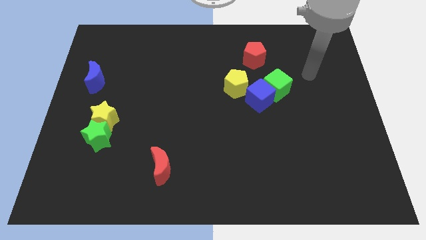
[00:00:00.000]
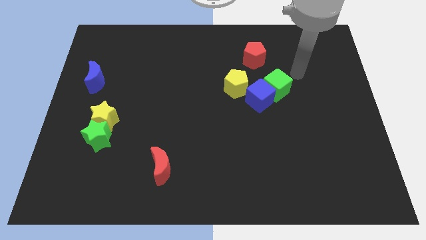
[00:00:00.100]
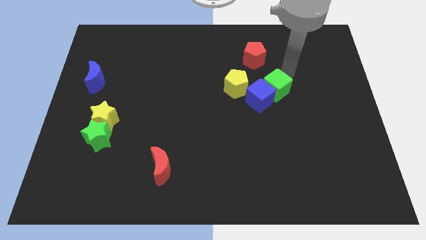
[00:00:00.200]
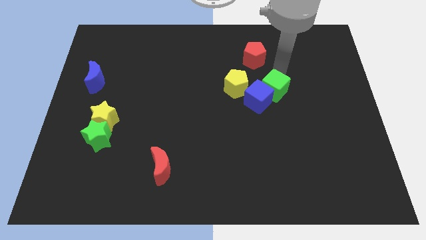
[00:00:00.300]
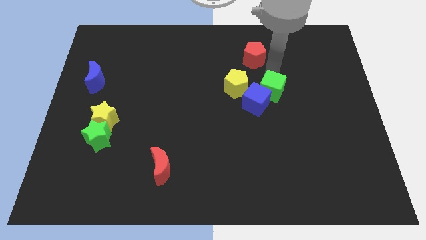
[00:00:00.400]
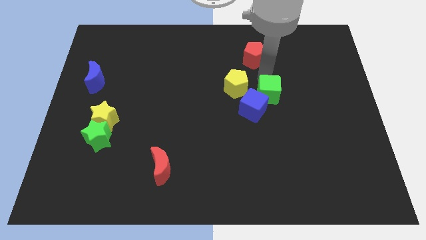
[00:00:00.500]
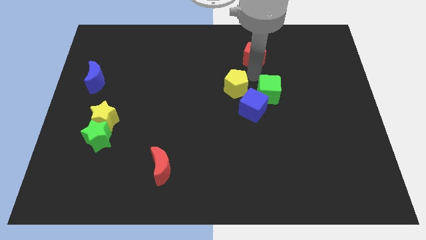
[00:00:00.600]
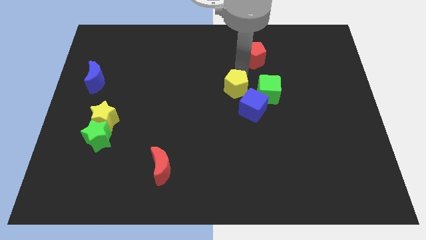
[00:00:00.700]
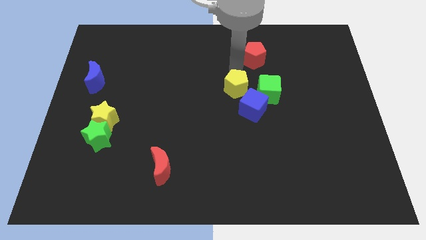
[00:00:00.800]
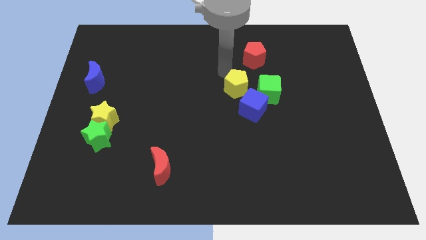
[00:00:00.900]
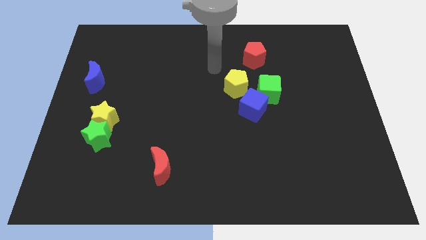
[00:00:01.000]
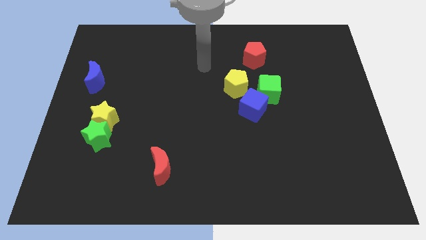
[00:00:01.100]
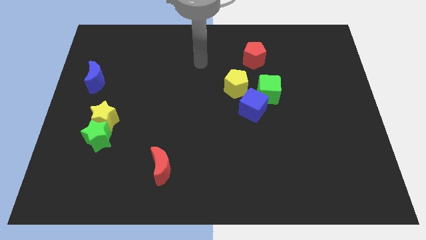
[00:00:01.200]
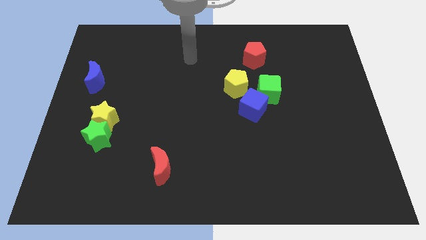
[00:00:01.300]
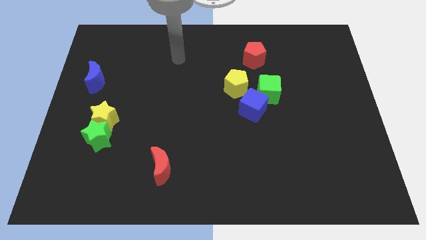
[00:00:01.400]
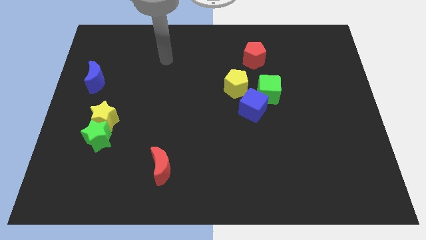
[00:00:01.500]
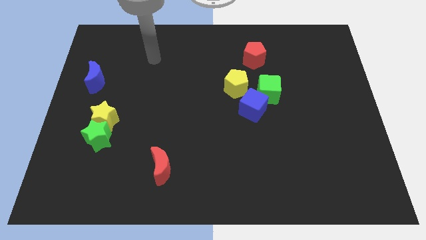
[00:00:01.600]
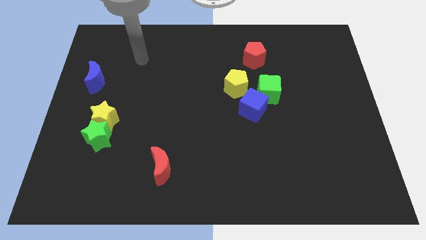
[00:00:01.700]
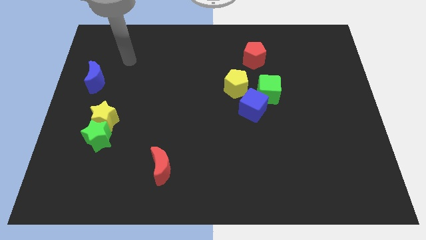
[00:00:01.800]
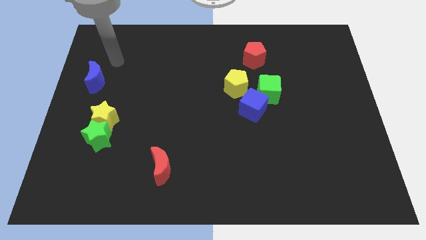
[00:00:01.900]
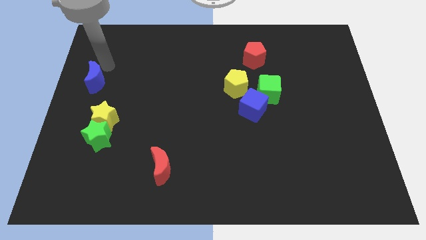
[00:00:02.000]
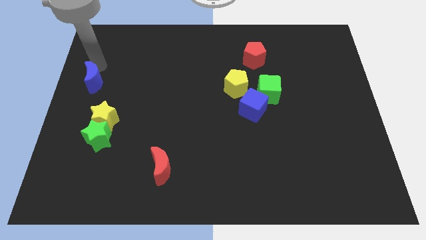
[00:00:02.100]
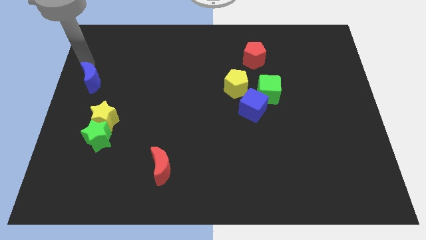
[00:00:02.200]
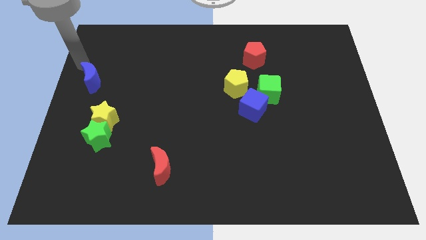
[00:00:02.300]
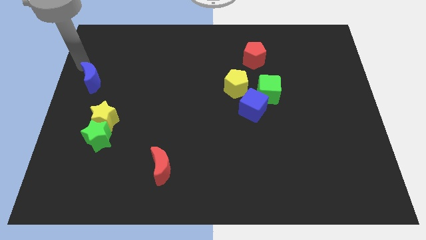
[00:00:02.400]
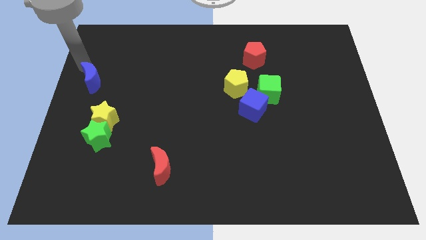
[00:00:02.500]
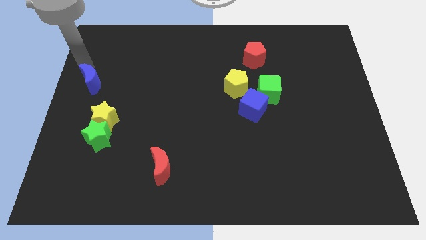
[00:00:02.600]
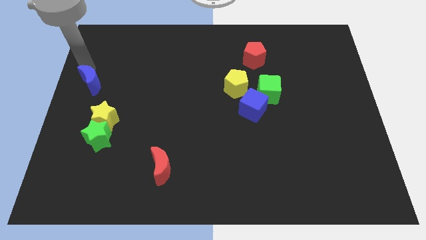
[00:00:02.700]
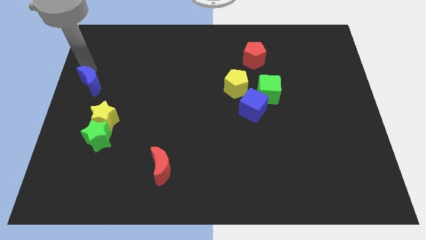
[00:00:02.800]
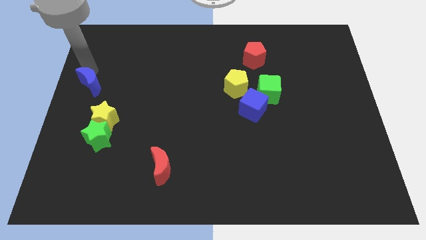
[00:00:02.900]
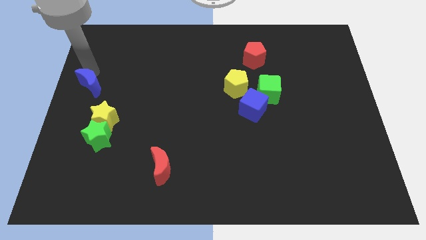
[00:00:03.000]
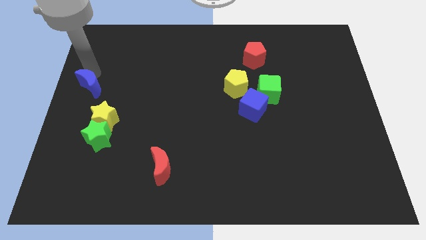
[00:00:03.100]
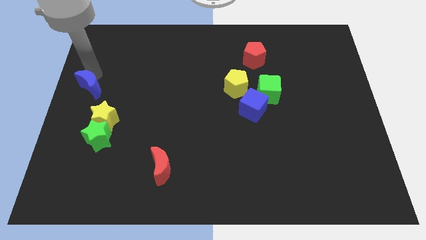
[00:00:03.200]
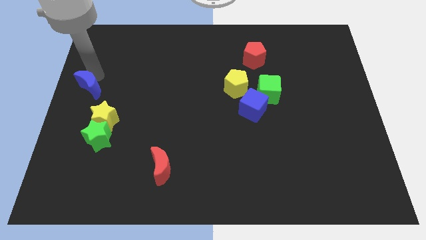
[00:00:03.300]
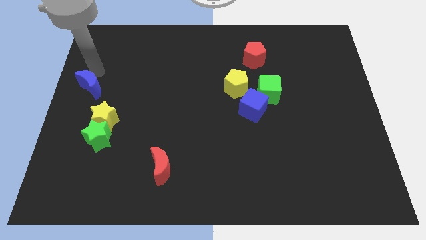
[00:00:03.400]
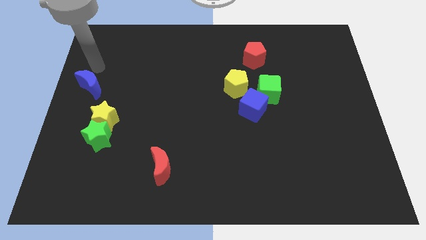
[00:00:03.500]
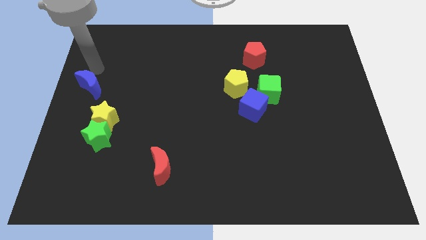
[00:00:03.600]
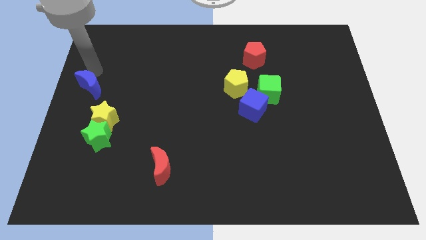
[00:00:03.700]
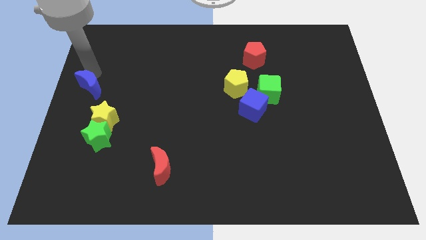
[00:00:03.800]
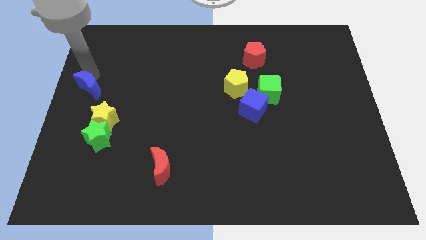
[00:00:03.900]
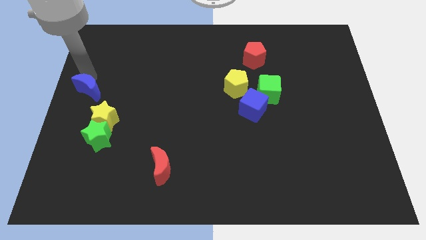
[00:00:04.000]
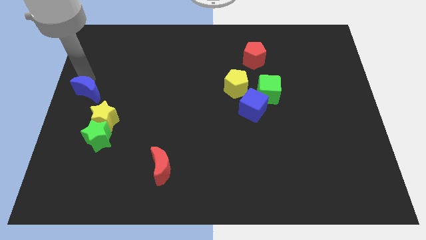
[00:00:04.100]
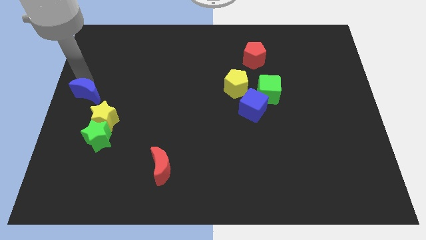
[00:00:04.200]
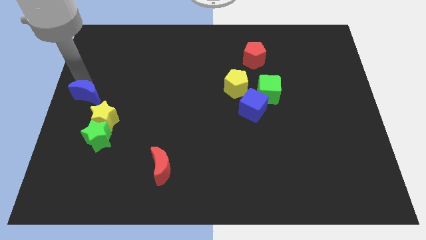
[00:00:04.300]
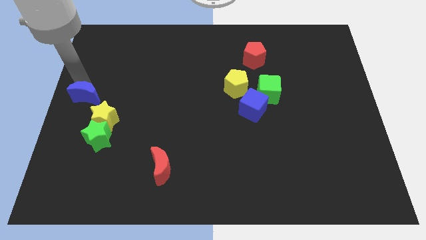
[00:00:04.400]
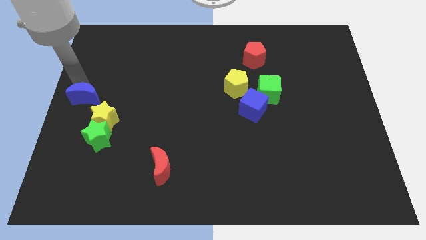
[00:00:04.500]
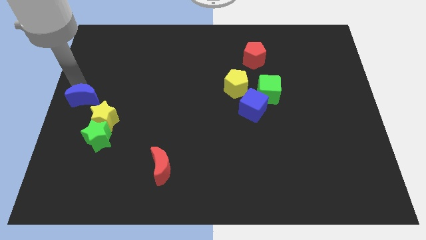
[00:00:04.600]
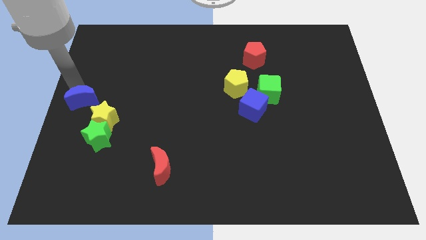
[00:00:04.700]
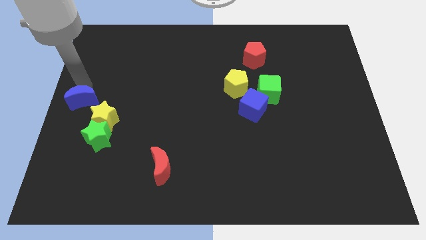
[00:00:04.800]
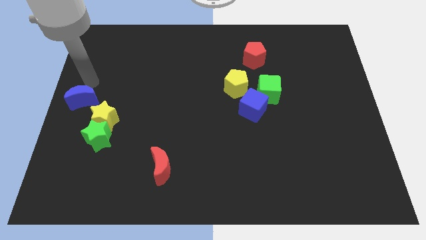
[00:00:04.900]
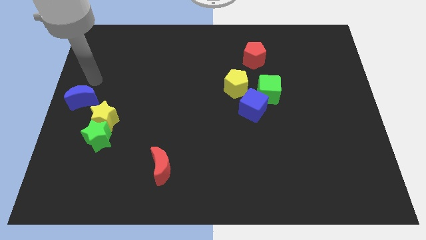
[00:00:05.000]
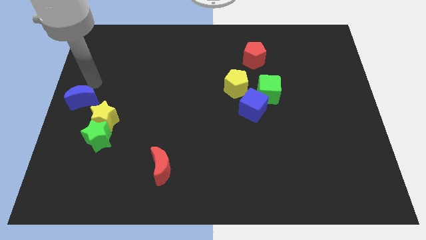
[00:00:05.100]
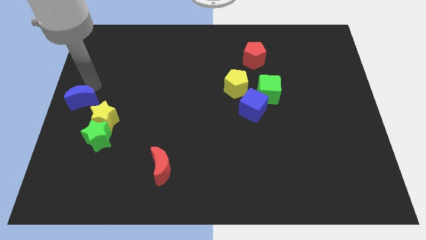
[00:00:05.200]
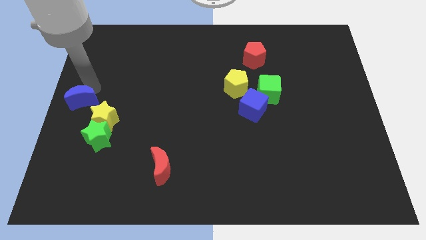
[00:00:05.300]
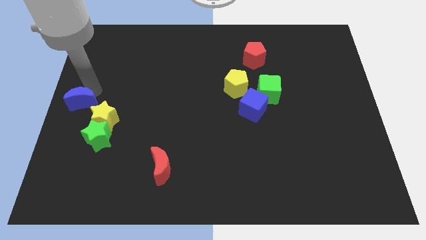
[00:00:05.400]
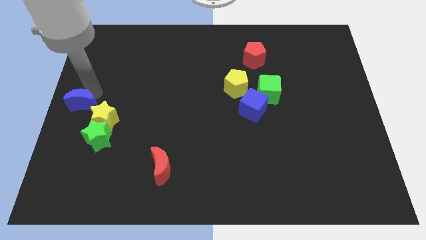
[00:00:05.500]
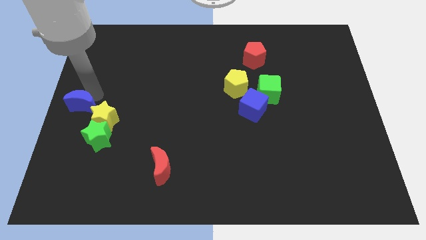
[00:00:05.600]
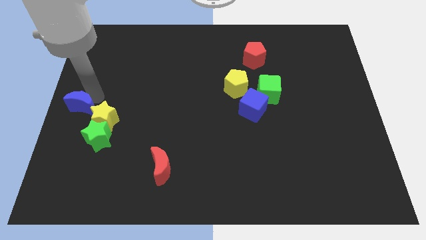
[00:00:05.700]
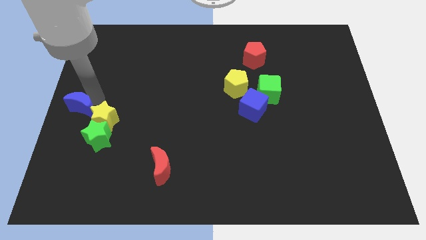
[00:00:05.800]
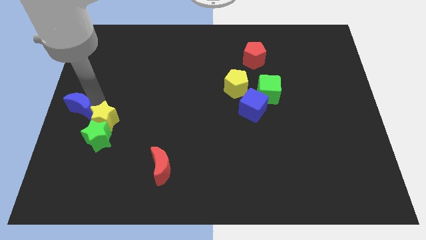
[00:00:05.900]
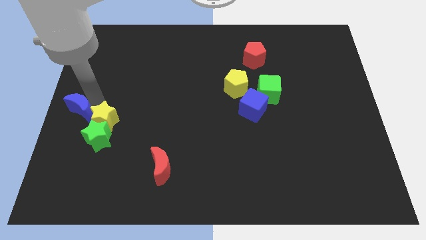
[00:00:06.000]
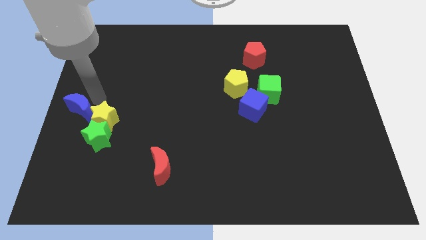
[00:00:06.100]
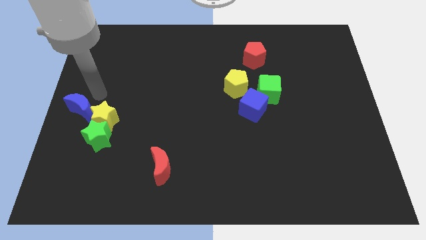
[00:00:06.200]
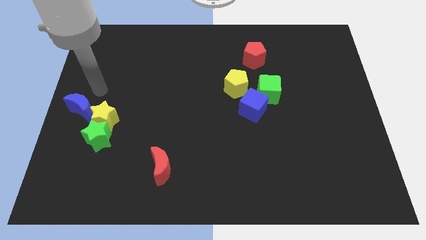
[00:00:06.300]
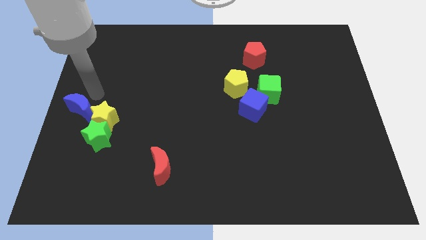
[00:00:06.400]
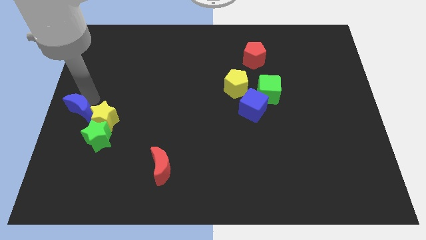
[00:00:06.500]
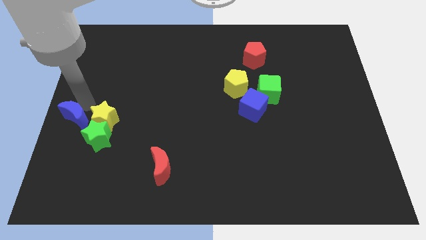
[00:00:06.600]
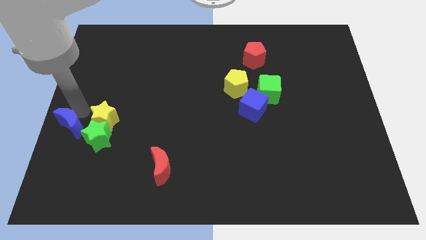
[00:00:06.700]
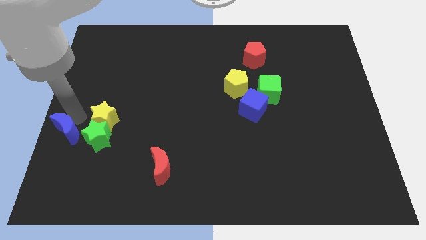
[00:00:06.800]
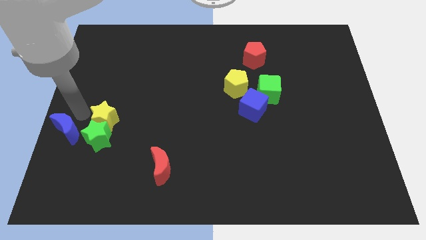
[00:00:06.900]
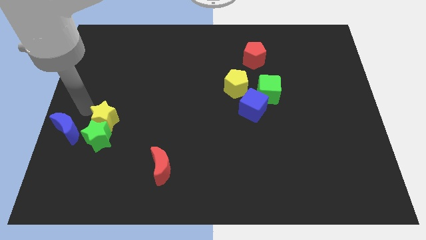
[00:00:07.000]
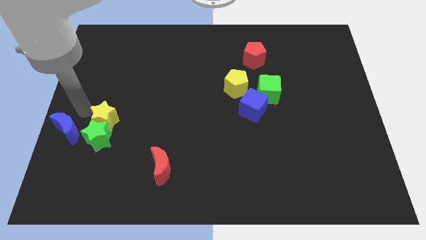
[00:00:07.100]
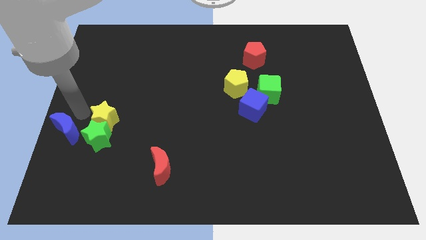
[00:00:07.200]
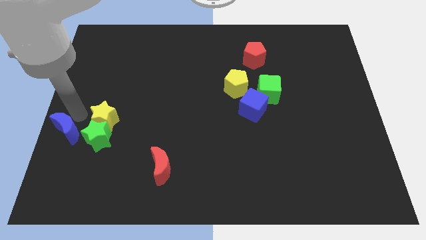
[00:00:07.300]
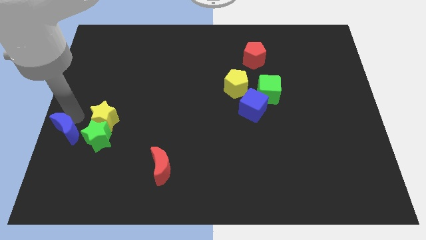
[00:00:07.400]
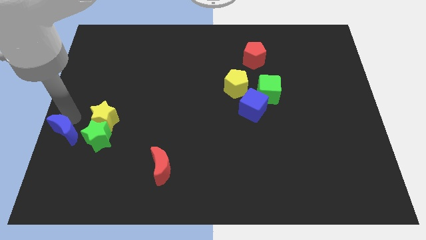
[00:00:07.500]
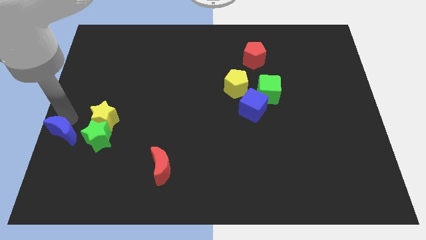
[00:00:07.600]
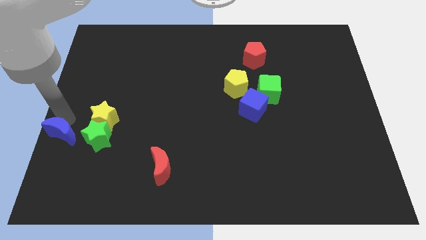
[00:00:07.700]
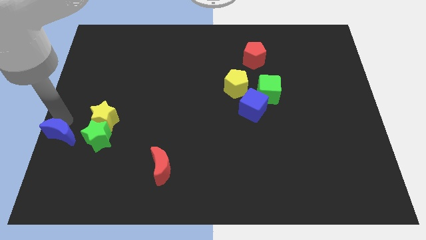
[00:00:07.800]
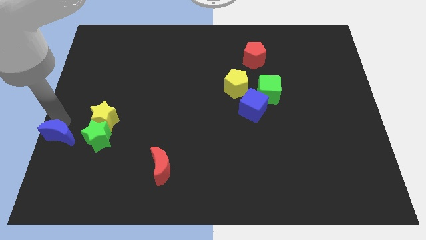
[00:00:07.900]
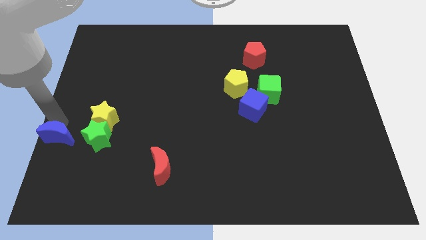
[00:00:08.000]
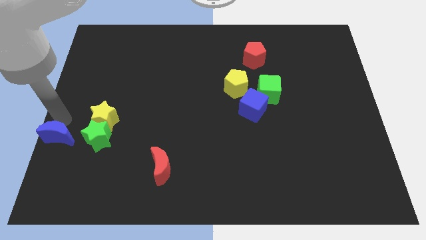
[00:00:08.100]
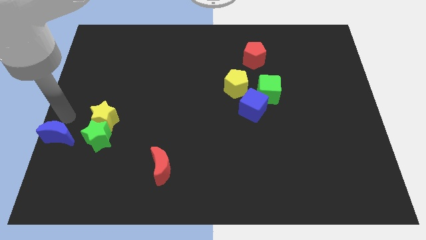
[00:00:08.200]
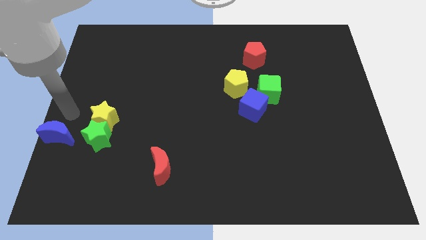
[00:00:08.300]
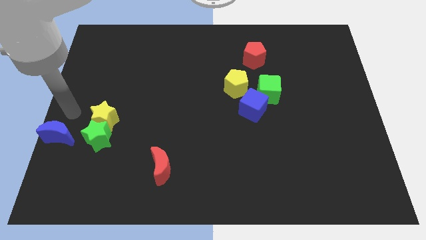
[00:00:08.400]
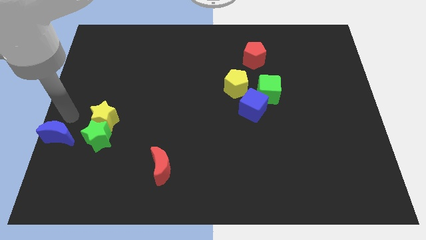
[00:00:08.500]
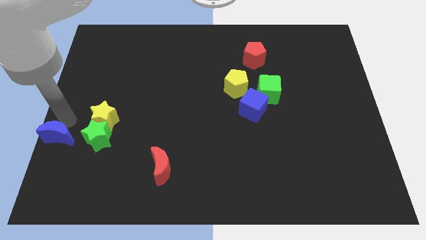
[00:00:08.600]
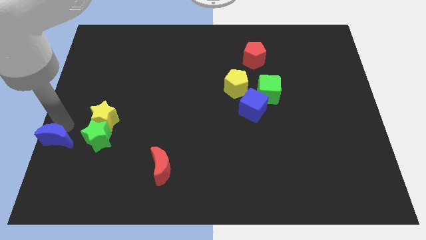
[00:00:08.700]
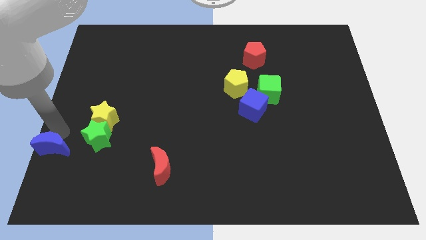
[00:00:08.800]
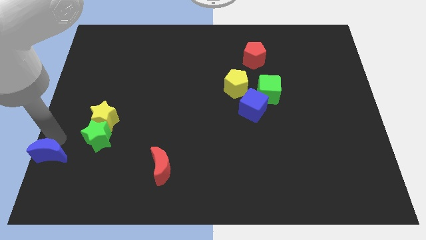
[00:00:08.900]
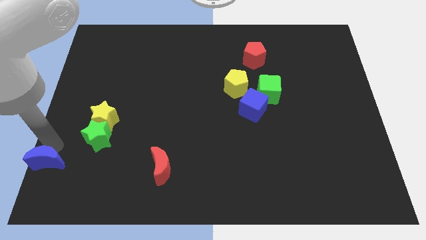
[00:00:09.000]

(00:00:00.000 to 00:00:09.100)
move the blue moon to the bottom left corner
